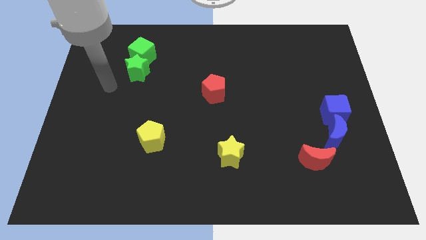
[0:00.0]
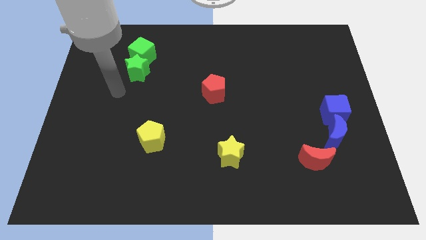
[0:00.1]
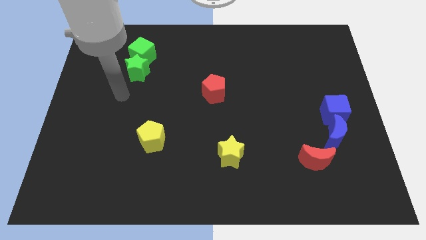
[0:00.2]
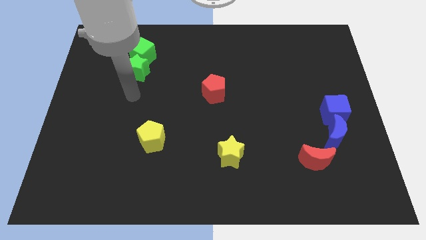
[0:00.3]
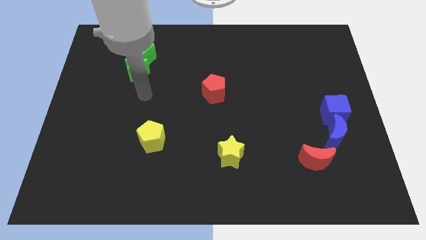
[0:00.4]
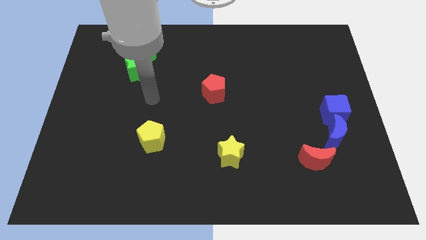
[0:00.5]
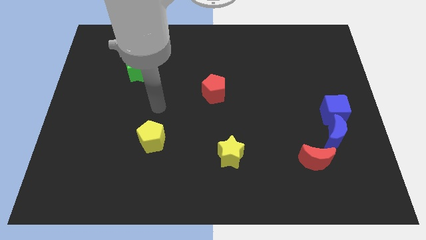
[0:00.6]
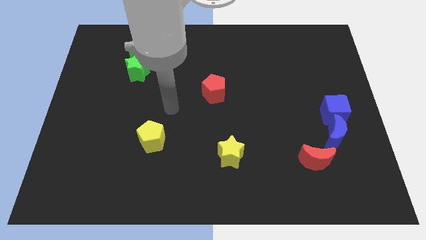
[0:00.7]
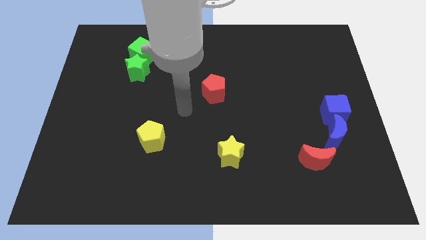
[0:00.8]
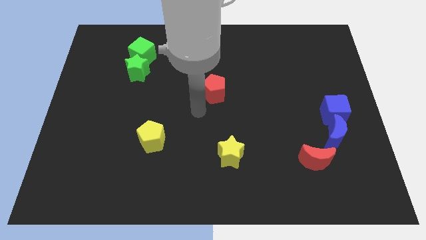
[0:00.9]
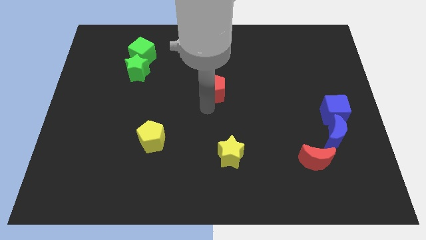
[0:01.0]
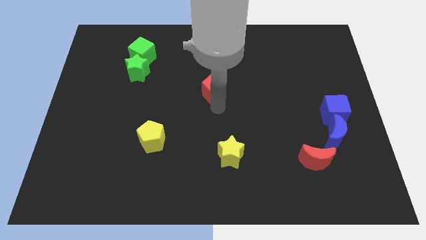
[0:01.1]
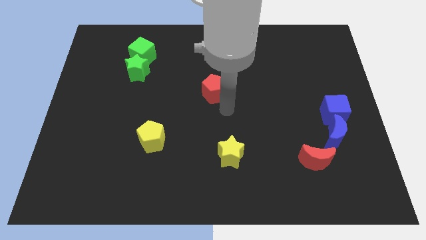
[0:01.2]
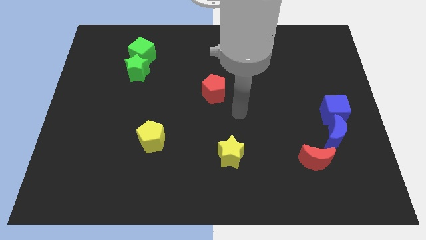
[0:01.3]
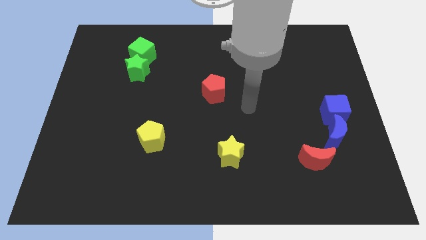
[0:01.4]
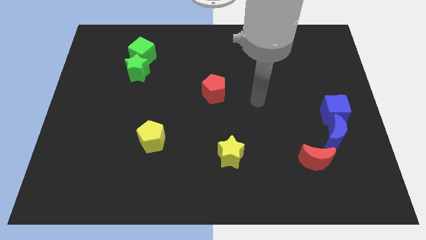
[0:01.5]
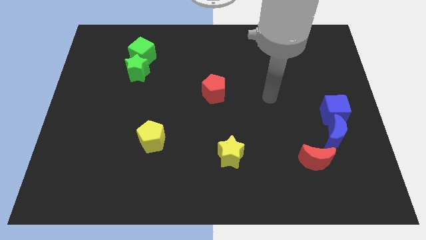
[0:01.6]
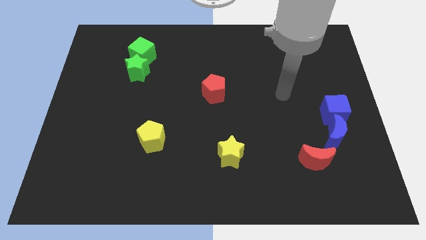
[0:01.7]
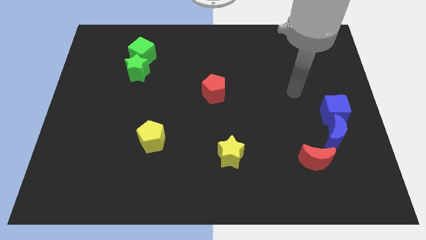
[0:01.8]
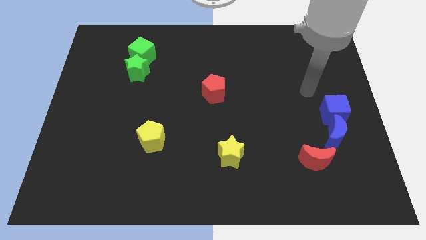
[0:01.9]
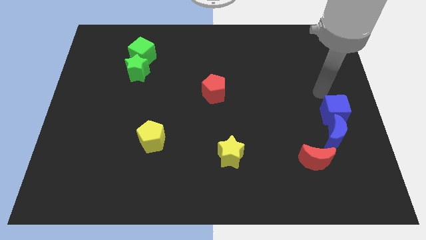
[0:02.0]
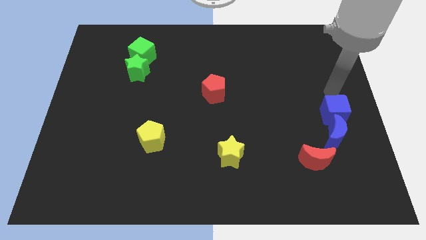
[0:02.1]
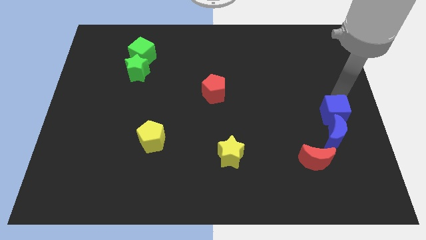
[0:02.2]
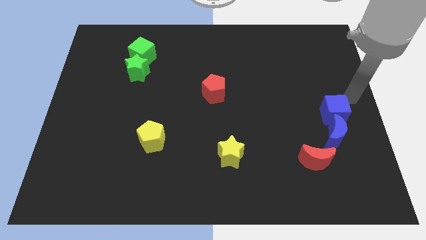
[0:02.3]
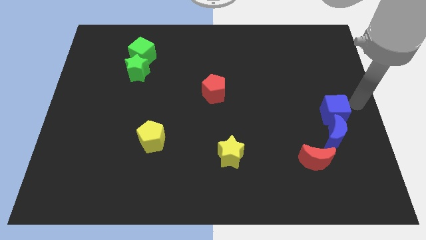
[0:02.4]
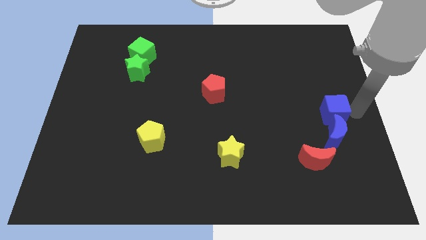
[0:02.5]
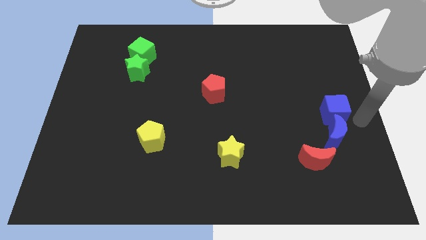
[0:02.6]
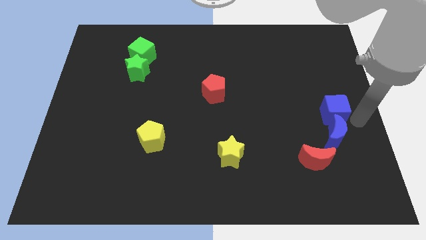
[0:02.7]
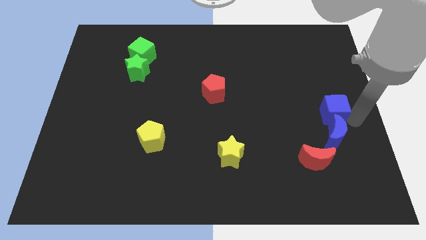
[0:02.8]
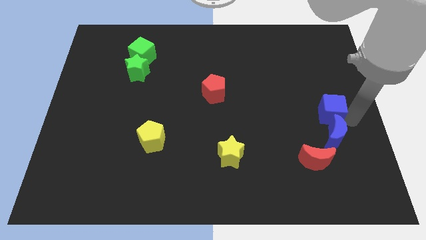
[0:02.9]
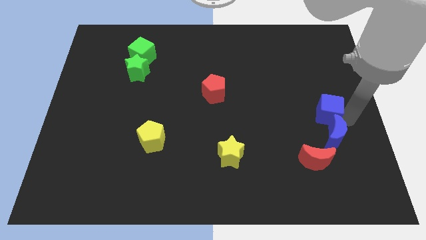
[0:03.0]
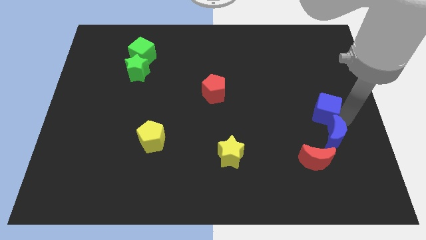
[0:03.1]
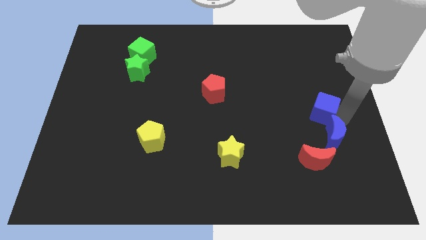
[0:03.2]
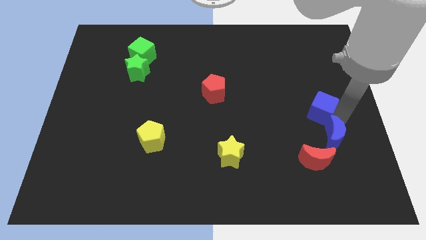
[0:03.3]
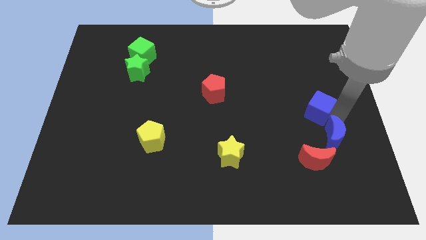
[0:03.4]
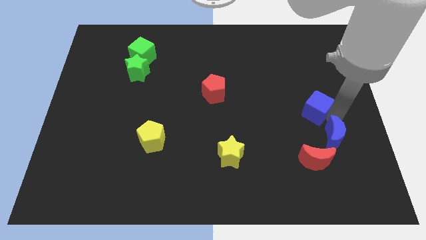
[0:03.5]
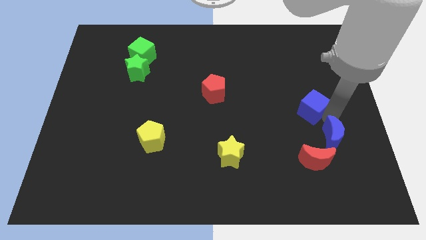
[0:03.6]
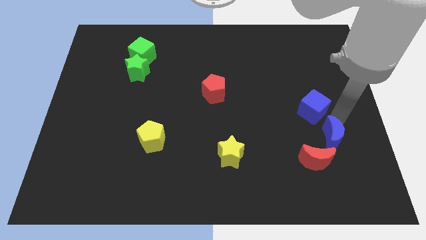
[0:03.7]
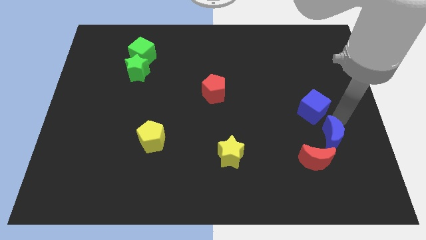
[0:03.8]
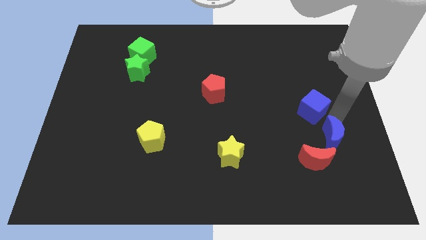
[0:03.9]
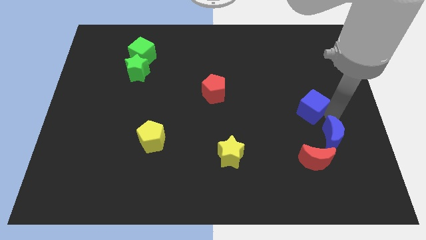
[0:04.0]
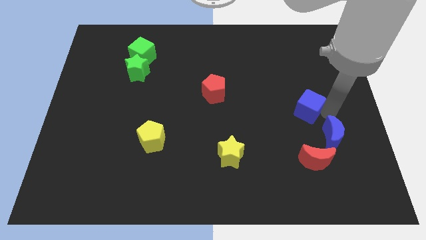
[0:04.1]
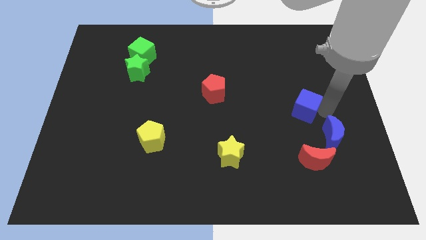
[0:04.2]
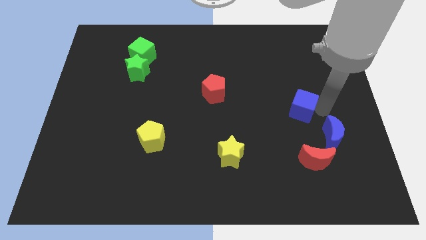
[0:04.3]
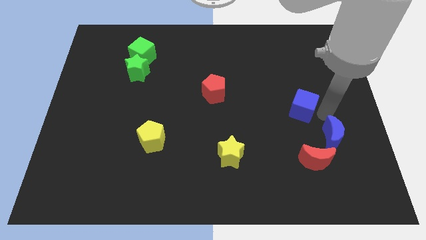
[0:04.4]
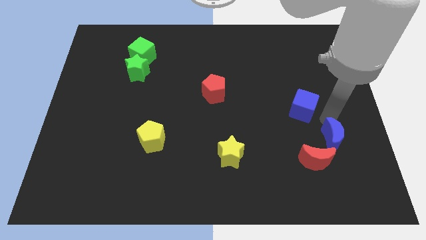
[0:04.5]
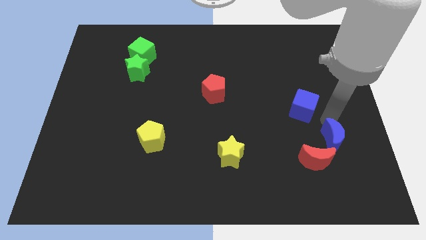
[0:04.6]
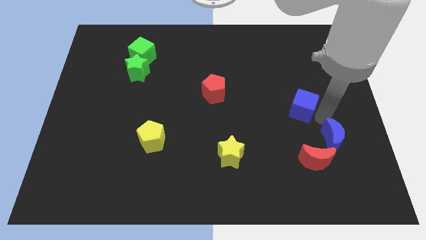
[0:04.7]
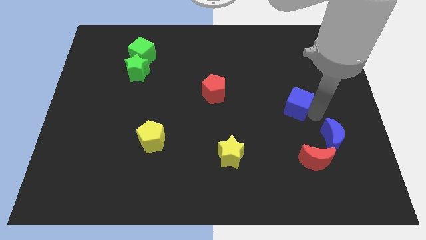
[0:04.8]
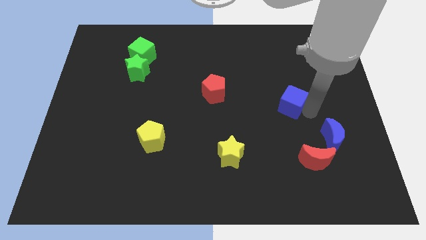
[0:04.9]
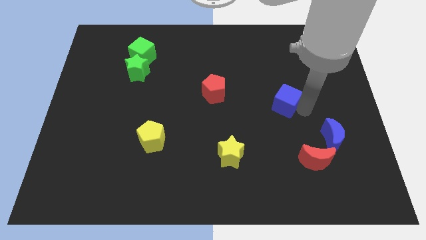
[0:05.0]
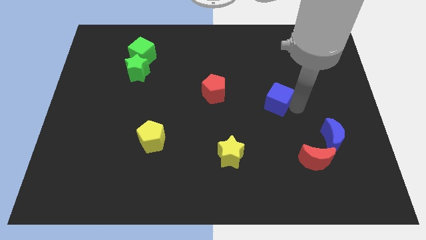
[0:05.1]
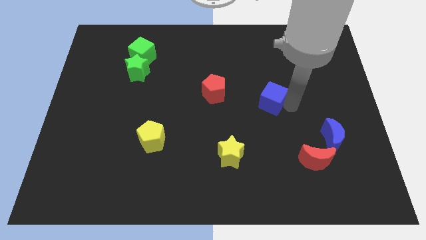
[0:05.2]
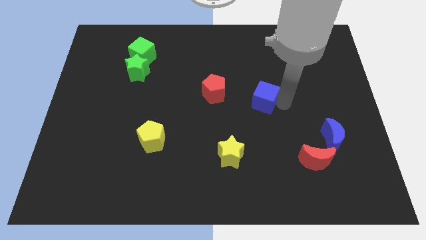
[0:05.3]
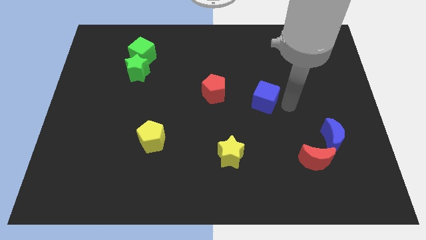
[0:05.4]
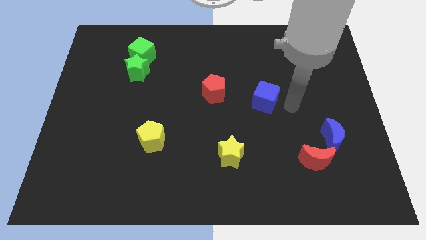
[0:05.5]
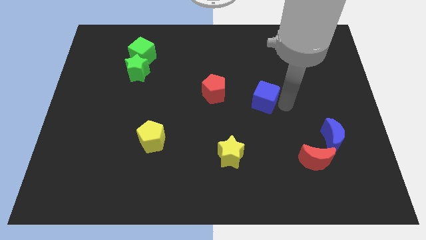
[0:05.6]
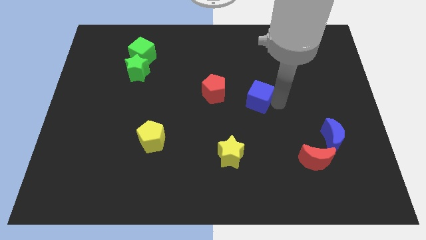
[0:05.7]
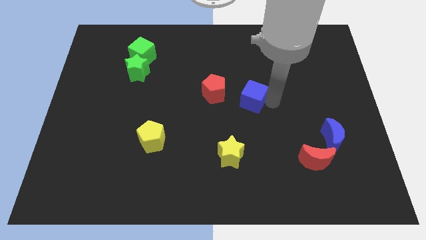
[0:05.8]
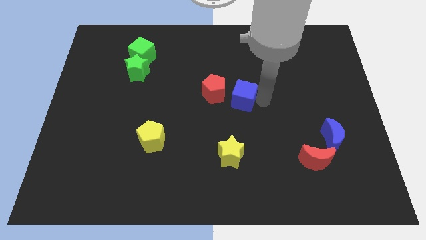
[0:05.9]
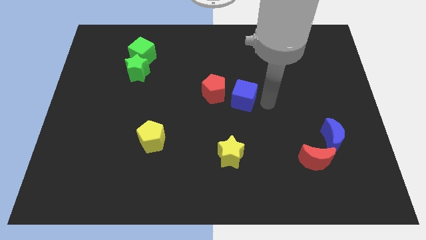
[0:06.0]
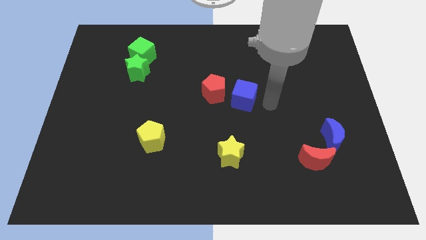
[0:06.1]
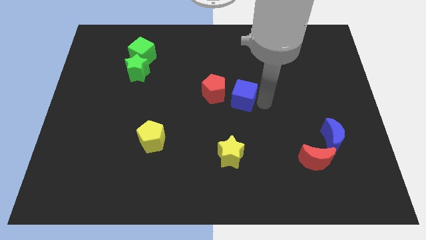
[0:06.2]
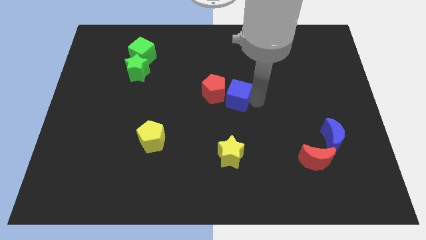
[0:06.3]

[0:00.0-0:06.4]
push the blue cube to the red pentagon
